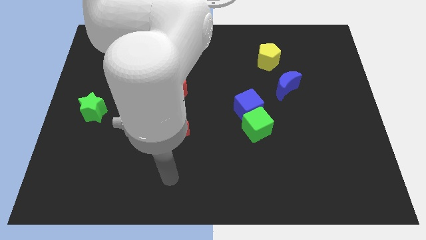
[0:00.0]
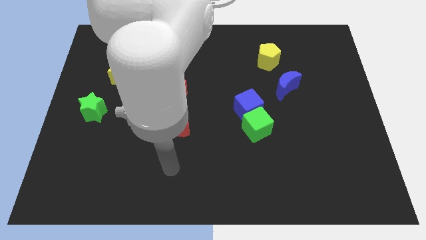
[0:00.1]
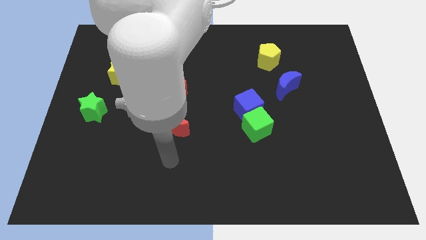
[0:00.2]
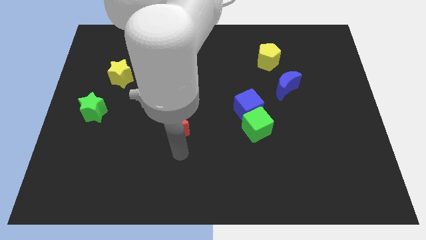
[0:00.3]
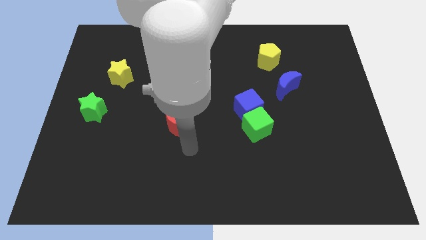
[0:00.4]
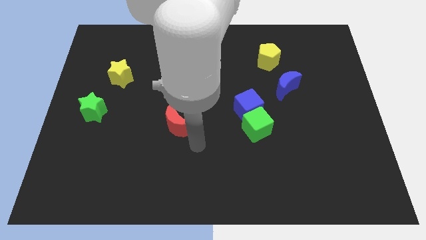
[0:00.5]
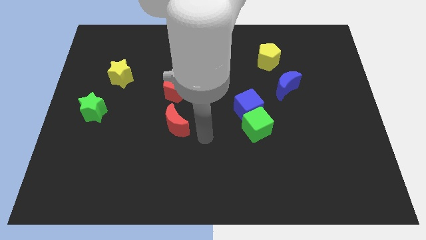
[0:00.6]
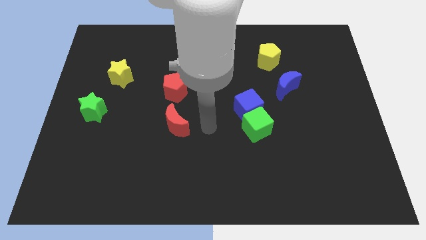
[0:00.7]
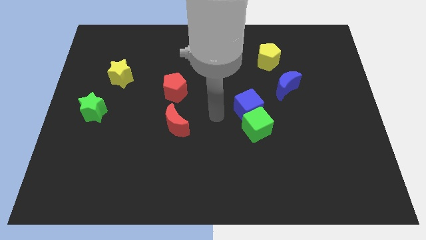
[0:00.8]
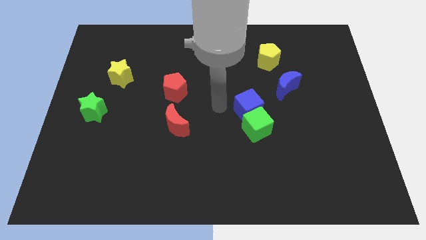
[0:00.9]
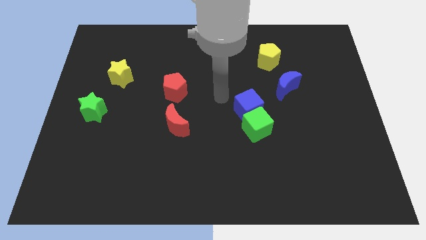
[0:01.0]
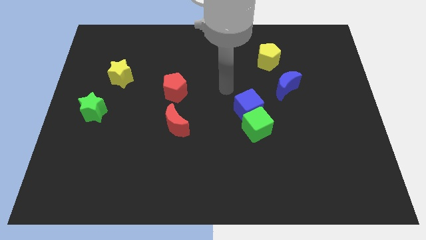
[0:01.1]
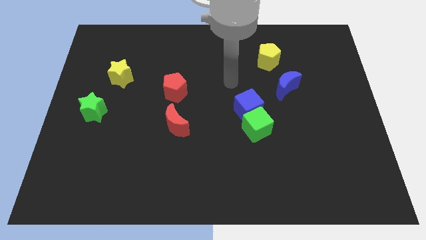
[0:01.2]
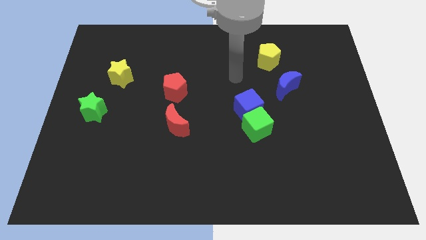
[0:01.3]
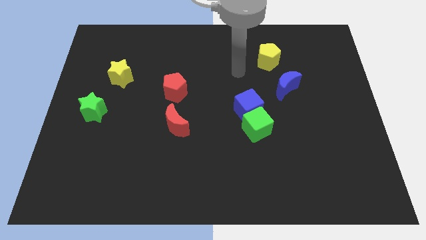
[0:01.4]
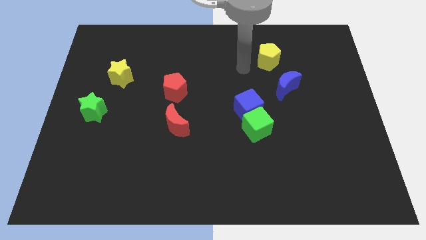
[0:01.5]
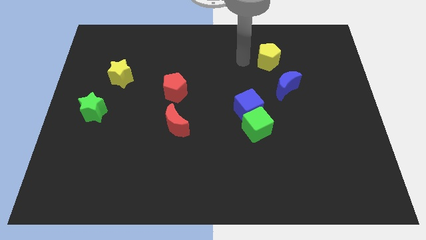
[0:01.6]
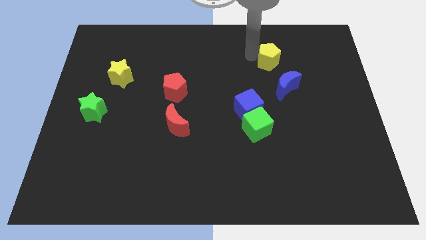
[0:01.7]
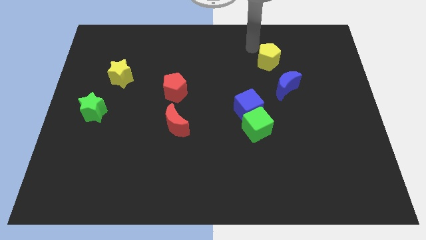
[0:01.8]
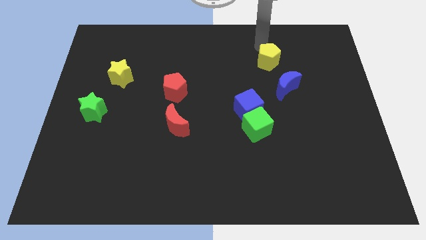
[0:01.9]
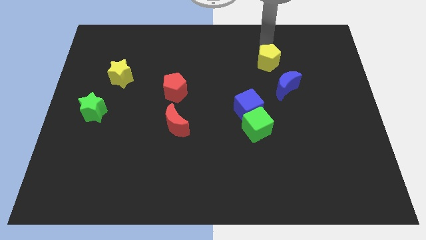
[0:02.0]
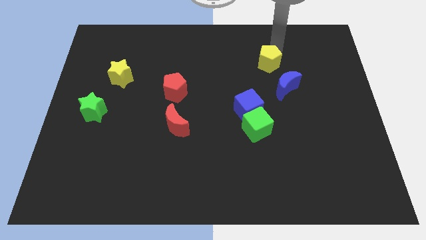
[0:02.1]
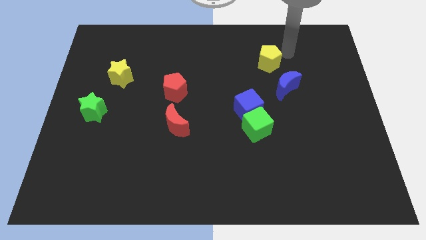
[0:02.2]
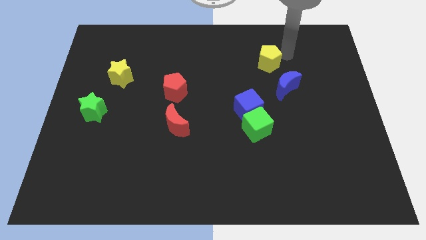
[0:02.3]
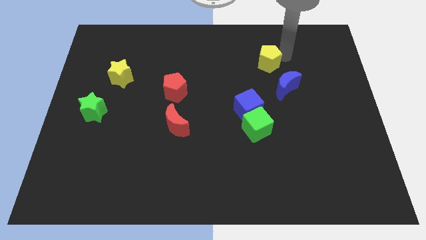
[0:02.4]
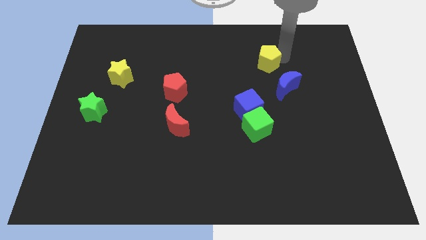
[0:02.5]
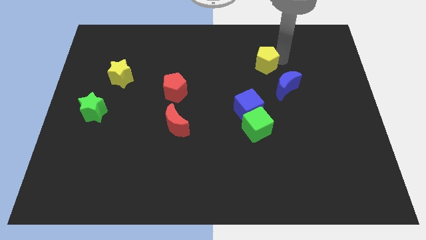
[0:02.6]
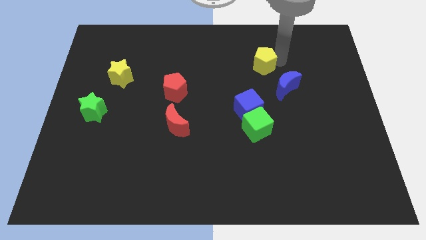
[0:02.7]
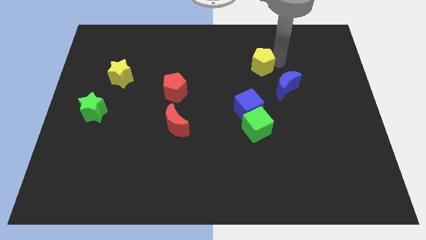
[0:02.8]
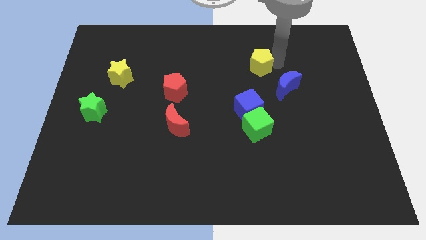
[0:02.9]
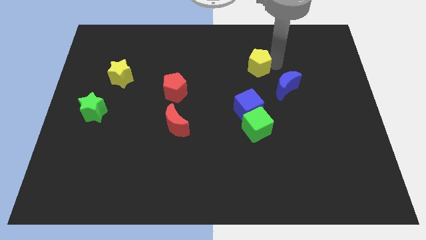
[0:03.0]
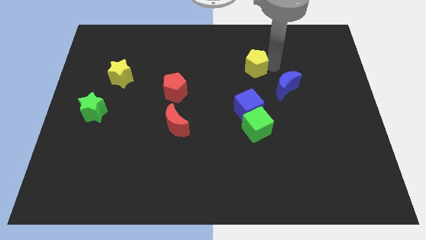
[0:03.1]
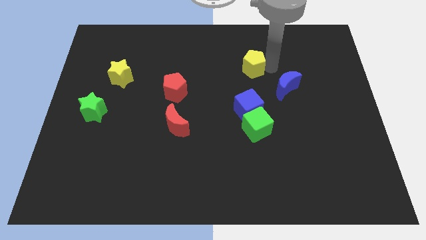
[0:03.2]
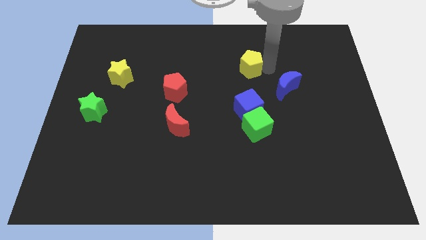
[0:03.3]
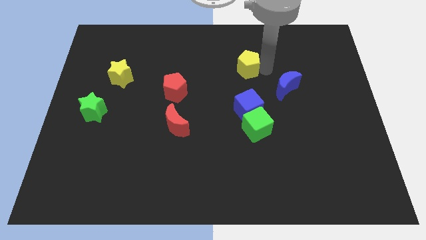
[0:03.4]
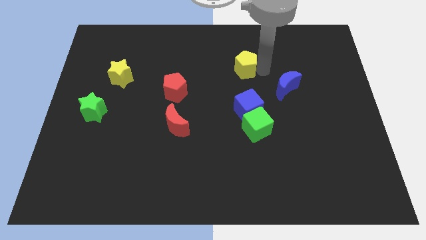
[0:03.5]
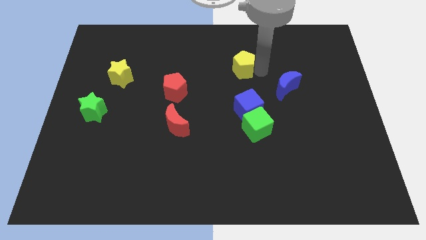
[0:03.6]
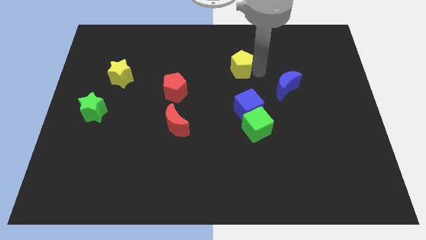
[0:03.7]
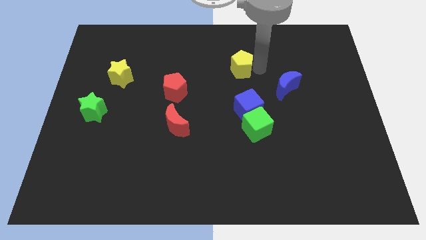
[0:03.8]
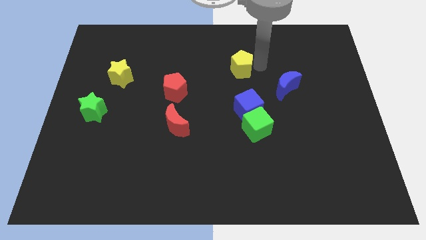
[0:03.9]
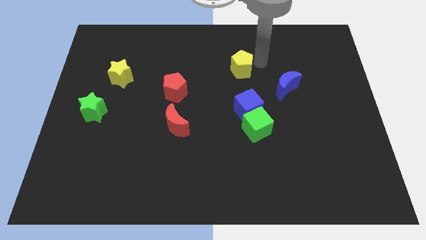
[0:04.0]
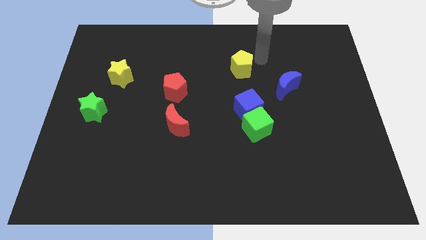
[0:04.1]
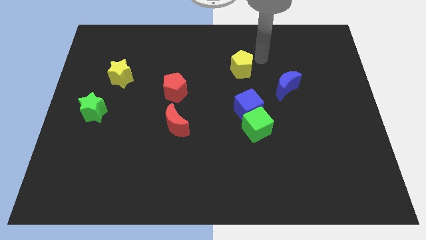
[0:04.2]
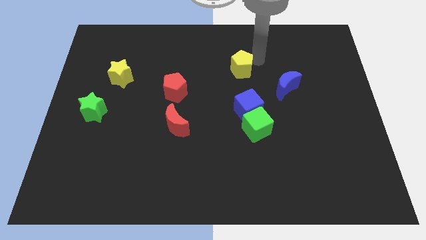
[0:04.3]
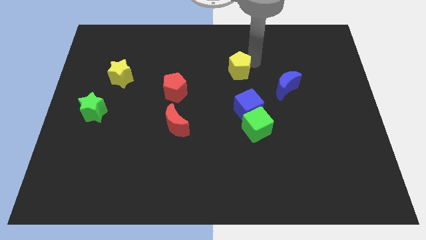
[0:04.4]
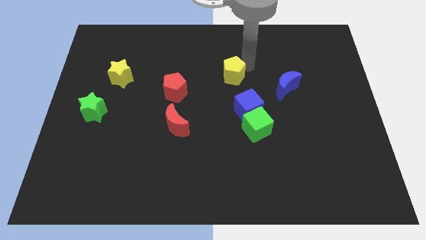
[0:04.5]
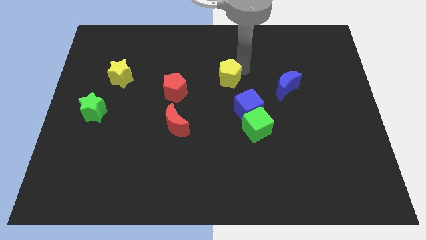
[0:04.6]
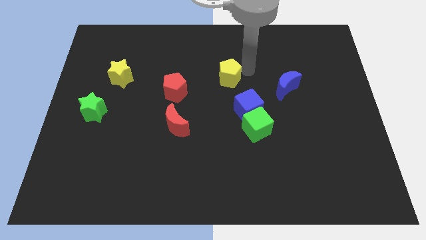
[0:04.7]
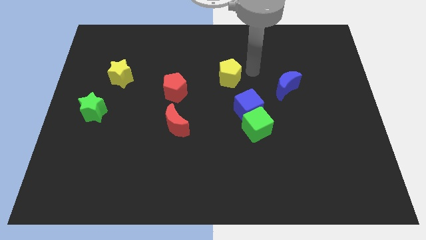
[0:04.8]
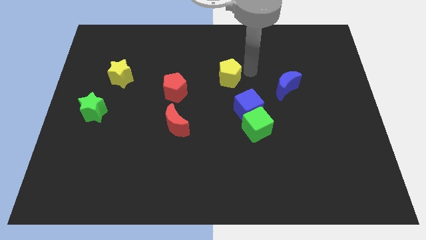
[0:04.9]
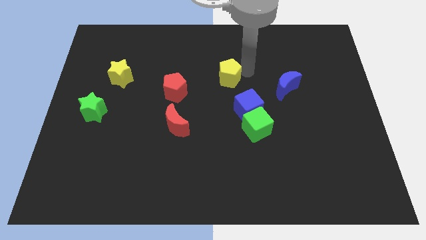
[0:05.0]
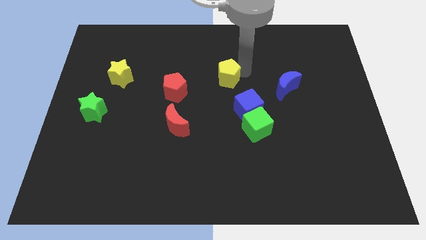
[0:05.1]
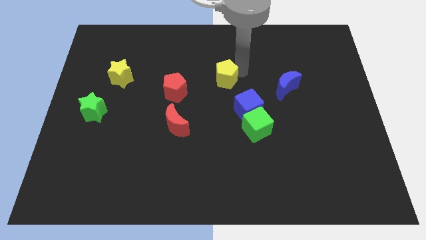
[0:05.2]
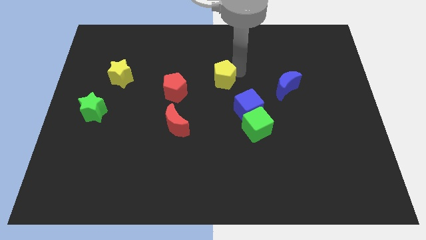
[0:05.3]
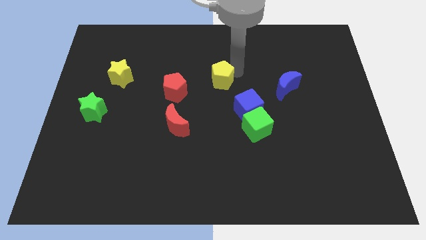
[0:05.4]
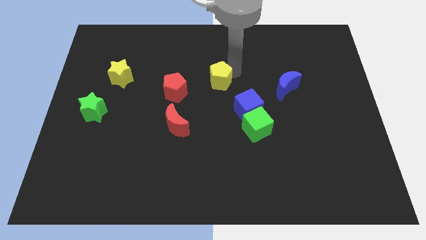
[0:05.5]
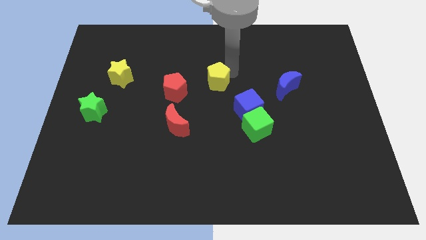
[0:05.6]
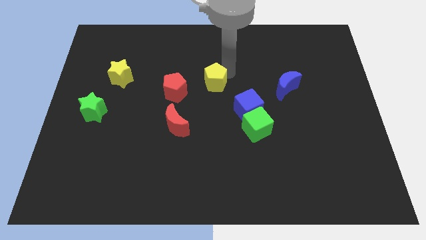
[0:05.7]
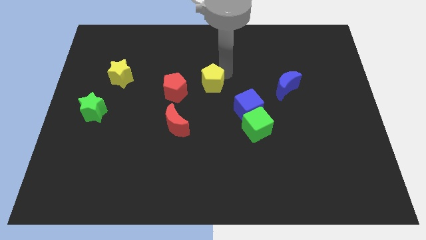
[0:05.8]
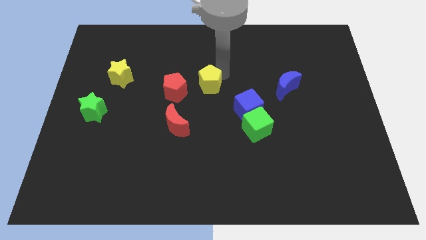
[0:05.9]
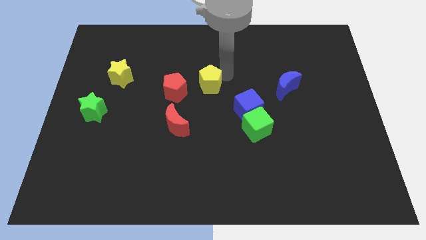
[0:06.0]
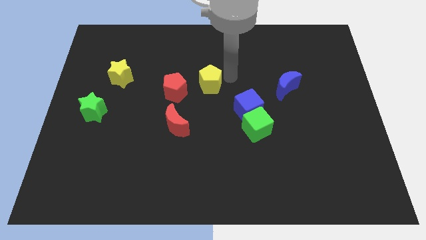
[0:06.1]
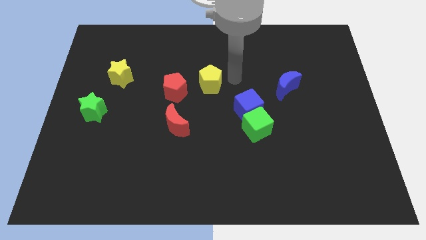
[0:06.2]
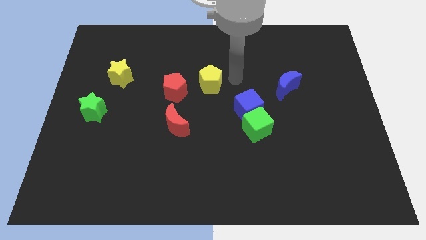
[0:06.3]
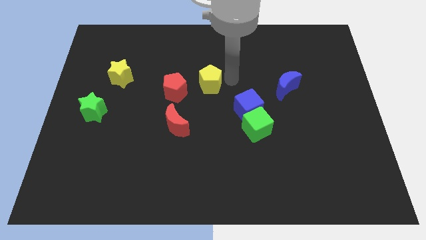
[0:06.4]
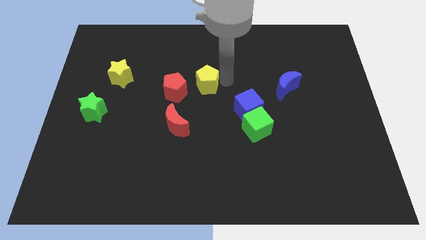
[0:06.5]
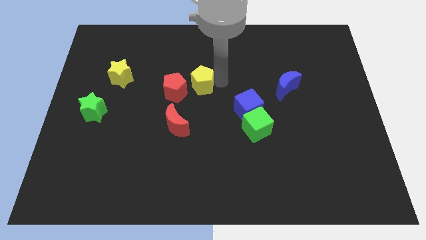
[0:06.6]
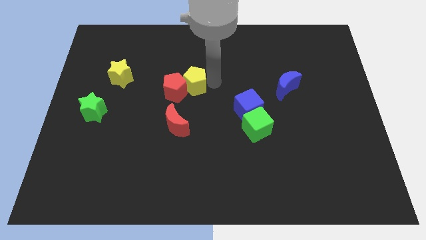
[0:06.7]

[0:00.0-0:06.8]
push the yellow pentagon towards the red pentagon
